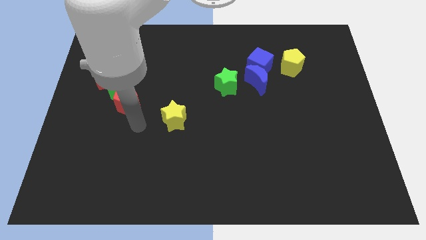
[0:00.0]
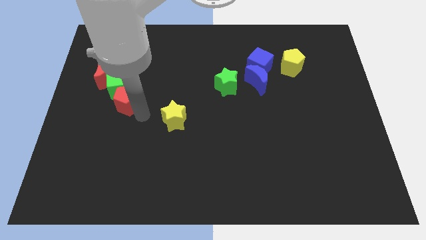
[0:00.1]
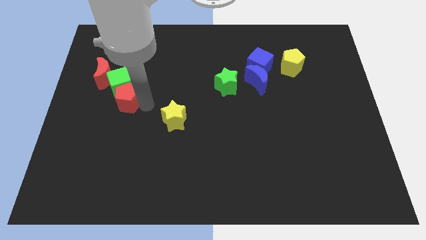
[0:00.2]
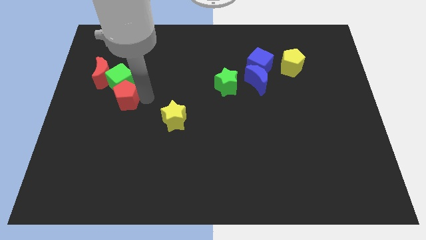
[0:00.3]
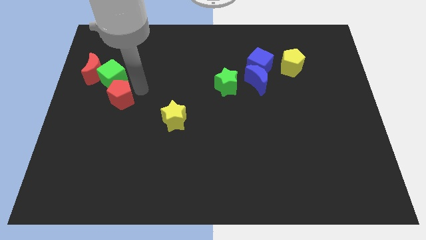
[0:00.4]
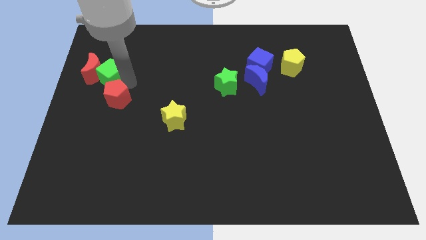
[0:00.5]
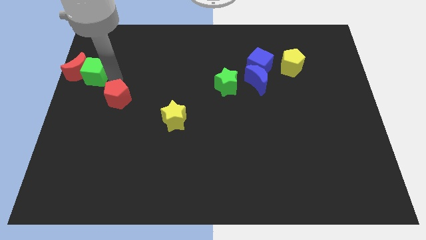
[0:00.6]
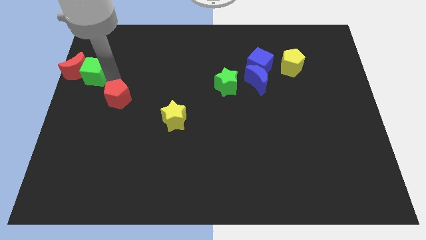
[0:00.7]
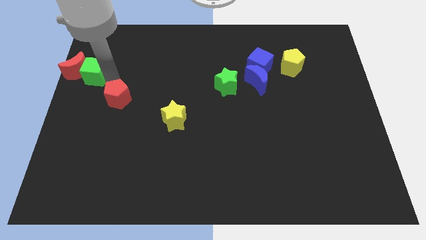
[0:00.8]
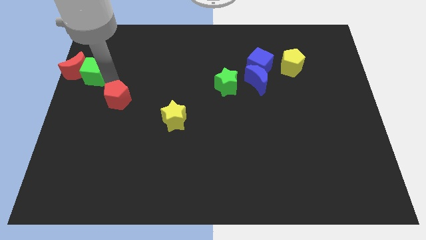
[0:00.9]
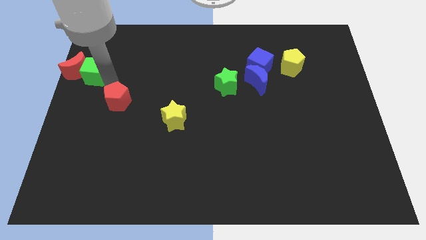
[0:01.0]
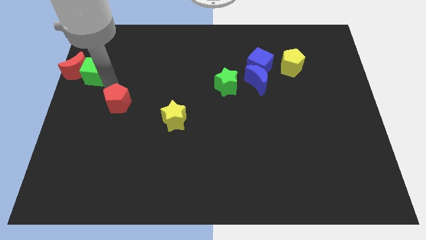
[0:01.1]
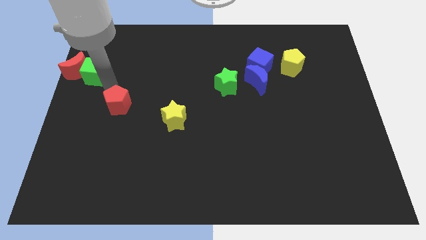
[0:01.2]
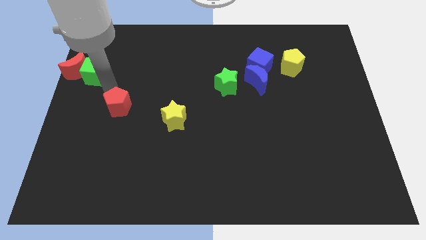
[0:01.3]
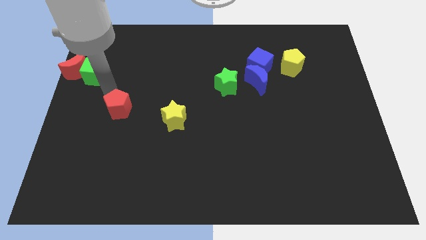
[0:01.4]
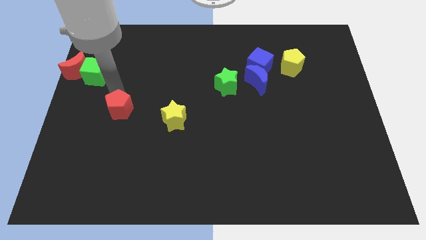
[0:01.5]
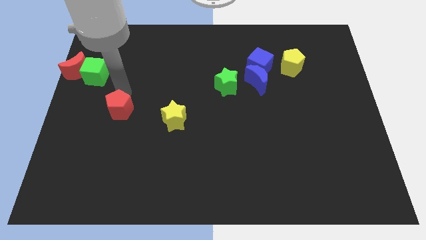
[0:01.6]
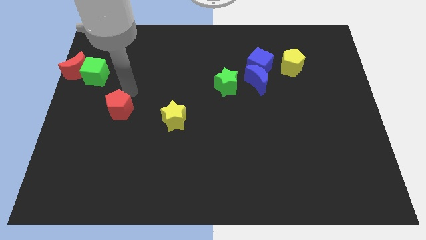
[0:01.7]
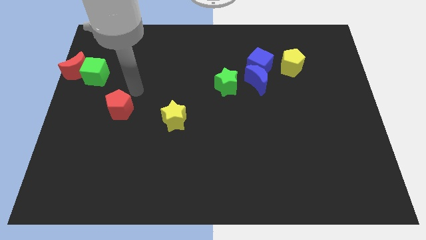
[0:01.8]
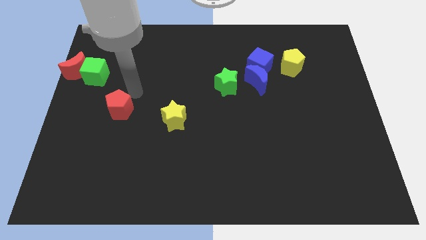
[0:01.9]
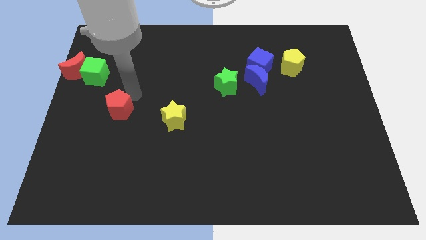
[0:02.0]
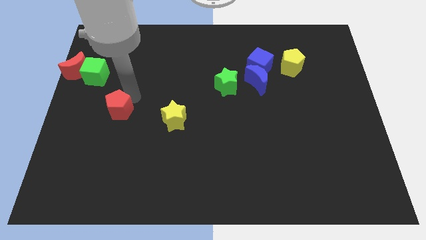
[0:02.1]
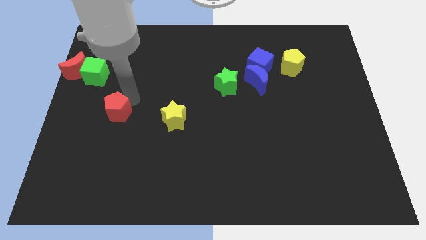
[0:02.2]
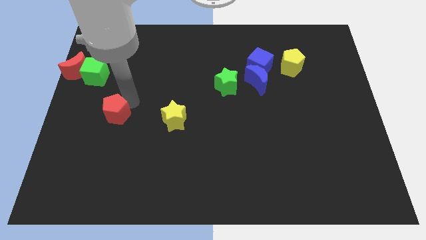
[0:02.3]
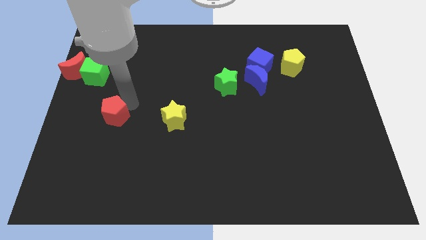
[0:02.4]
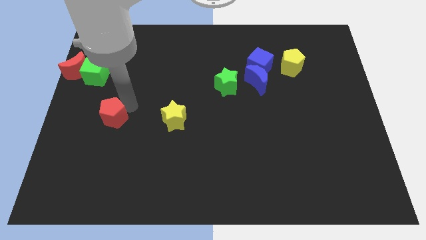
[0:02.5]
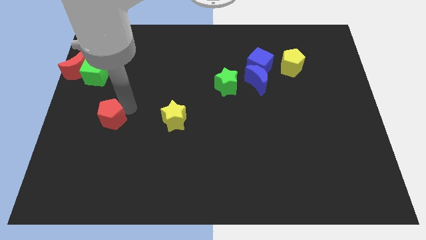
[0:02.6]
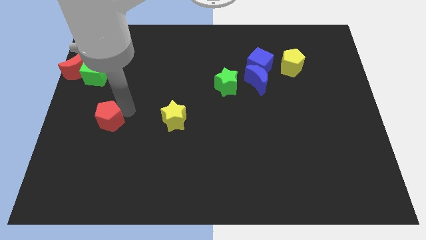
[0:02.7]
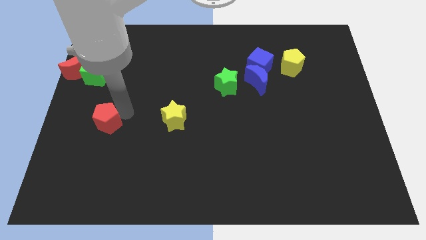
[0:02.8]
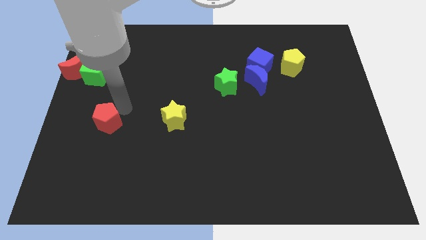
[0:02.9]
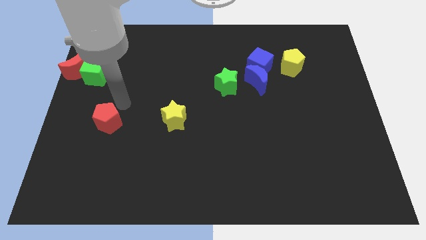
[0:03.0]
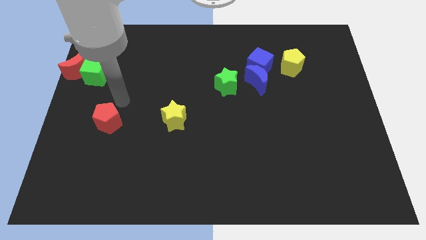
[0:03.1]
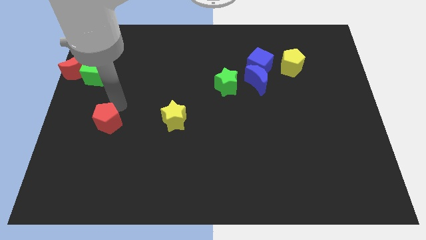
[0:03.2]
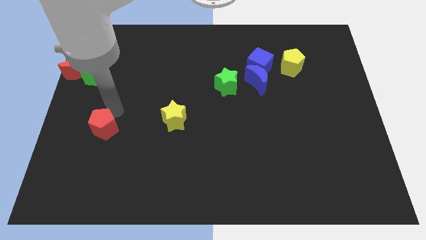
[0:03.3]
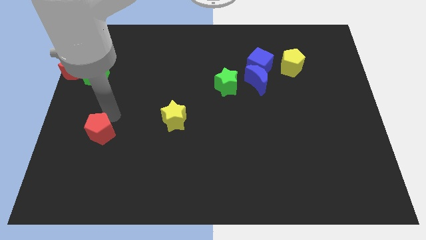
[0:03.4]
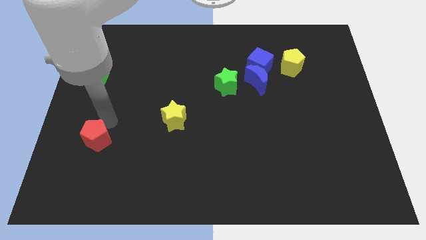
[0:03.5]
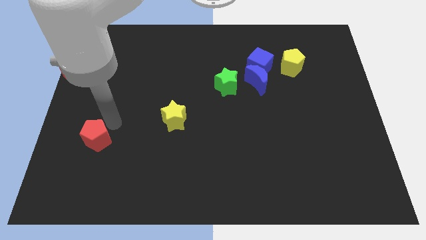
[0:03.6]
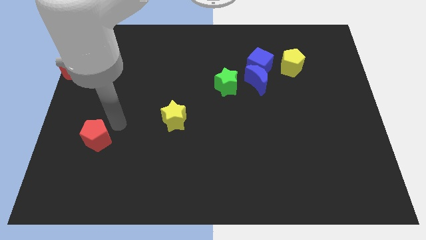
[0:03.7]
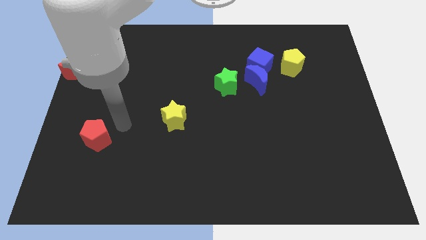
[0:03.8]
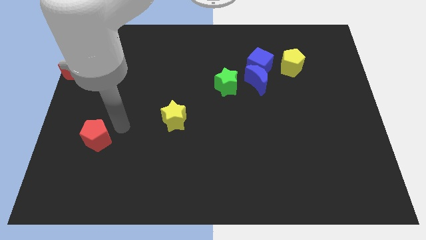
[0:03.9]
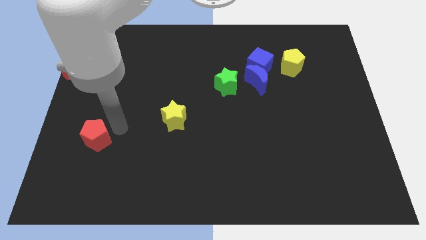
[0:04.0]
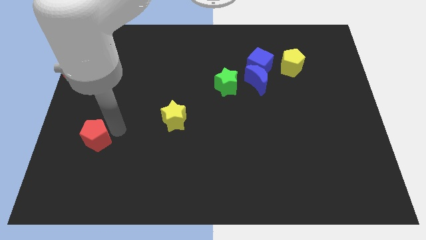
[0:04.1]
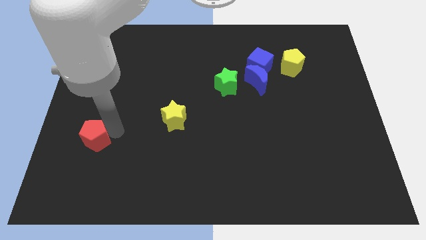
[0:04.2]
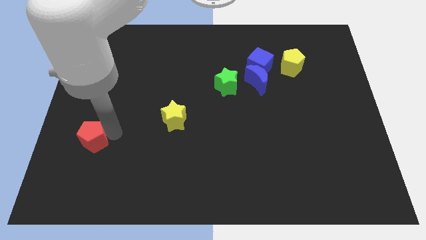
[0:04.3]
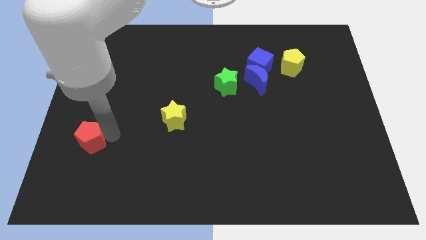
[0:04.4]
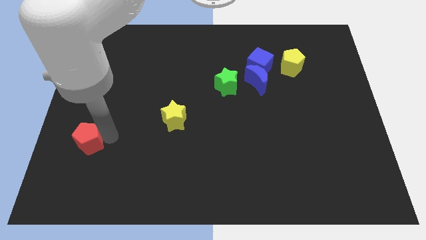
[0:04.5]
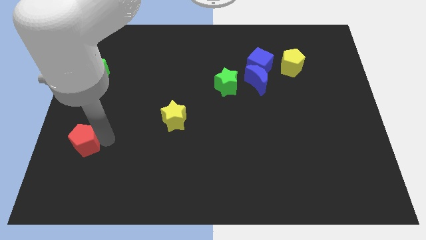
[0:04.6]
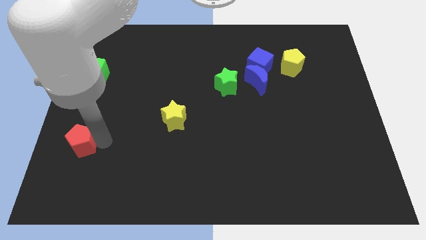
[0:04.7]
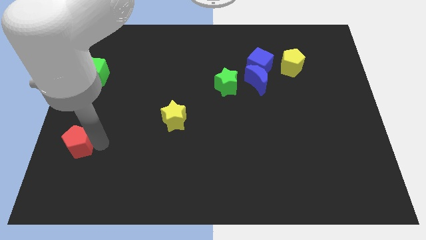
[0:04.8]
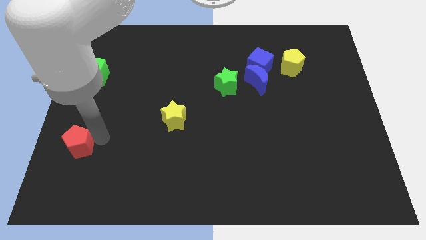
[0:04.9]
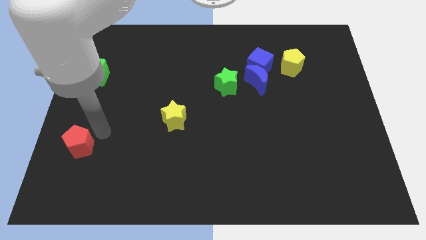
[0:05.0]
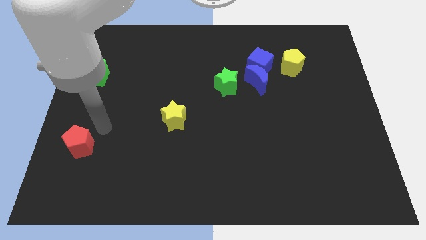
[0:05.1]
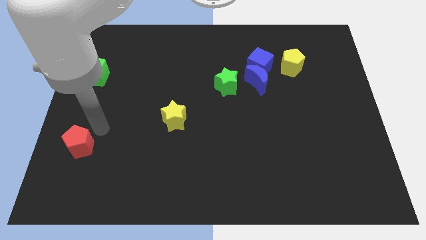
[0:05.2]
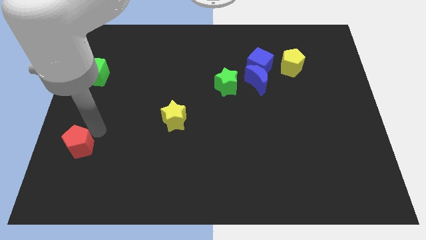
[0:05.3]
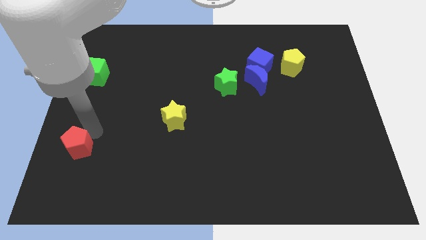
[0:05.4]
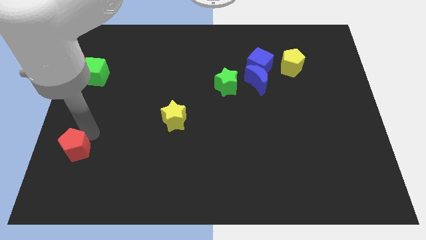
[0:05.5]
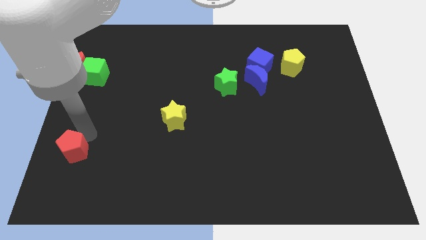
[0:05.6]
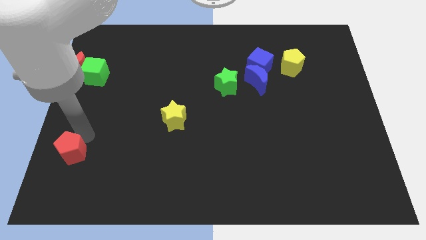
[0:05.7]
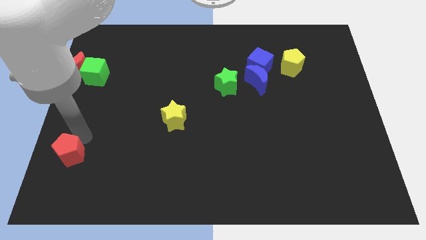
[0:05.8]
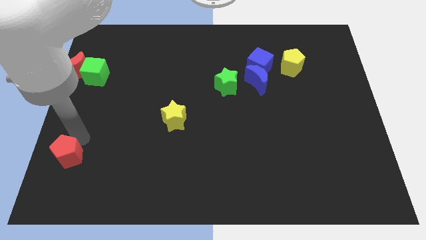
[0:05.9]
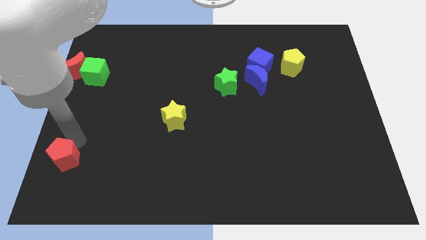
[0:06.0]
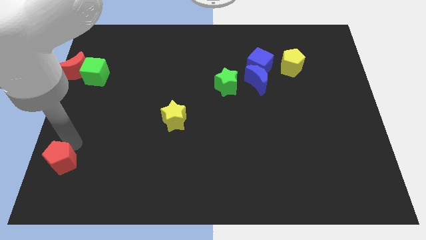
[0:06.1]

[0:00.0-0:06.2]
move the red pentagon to the bottom left

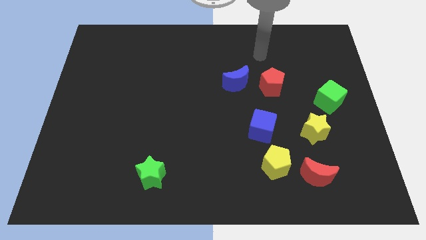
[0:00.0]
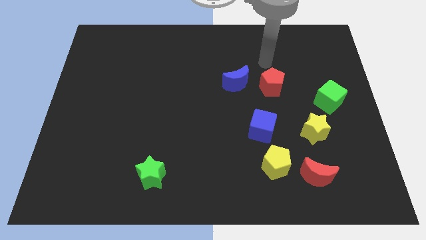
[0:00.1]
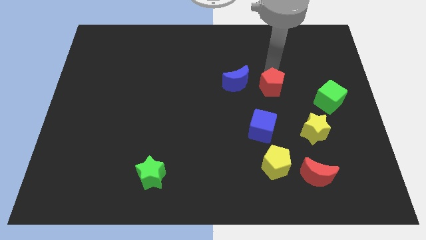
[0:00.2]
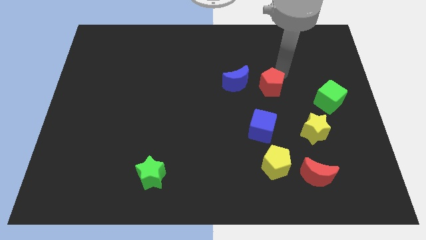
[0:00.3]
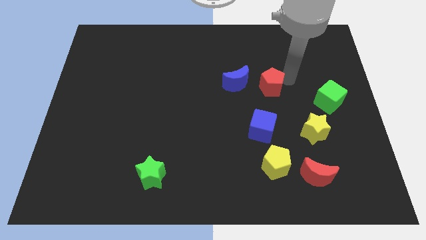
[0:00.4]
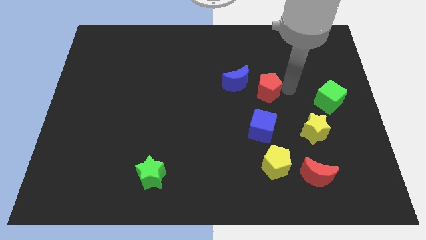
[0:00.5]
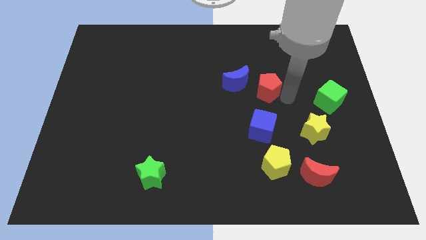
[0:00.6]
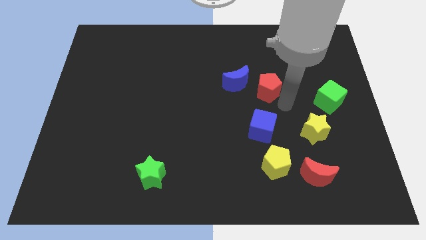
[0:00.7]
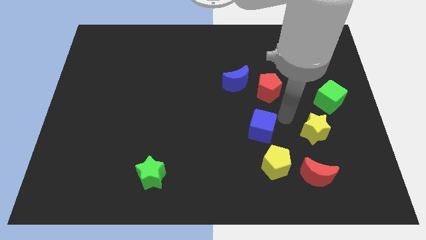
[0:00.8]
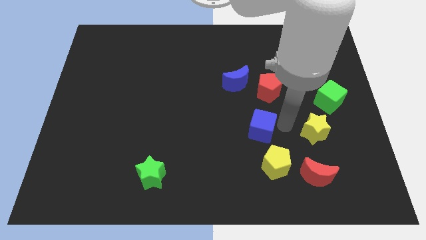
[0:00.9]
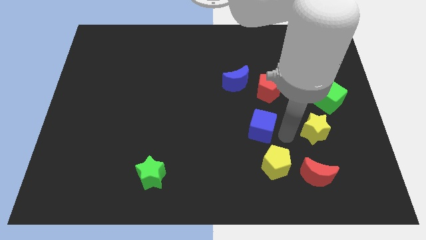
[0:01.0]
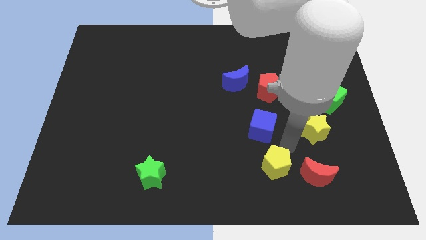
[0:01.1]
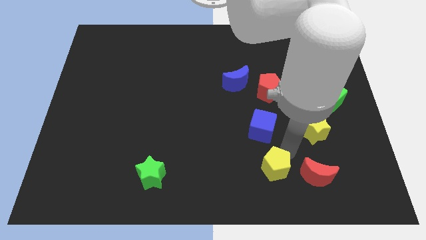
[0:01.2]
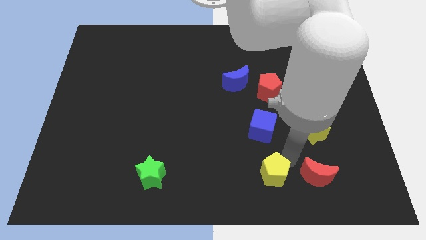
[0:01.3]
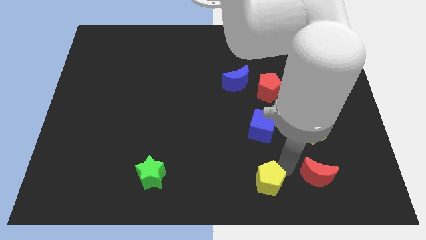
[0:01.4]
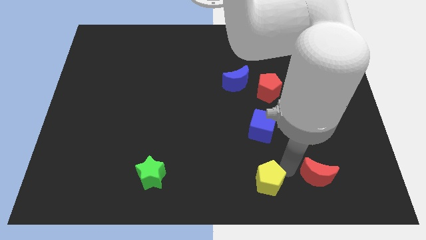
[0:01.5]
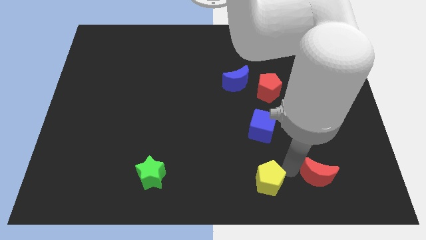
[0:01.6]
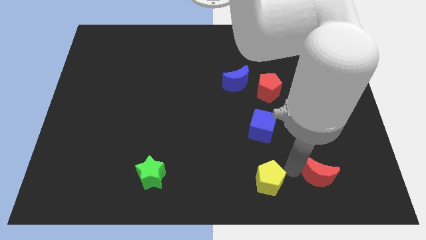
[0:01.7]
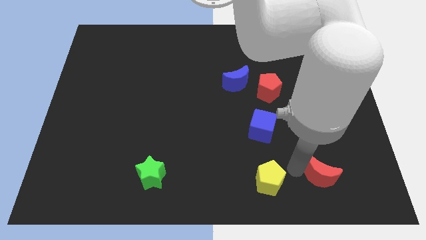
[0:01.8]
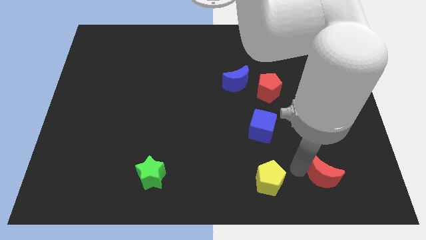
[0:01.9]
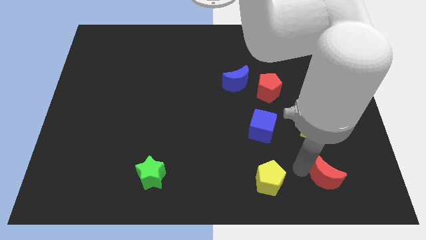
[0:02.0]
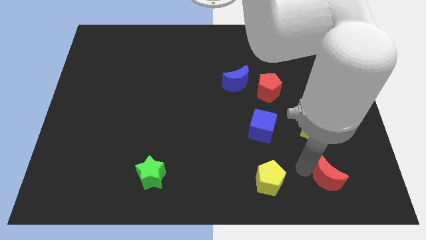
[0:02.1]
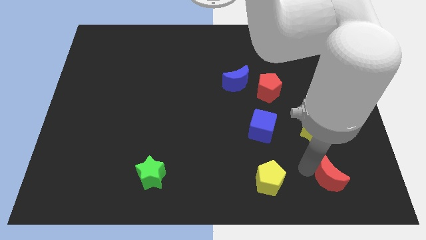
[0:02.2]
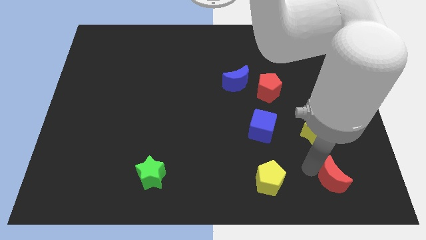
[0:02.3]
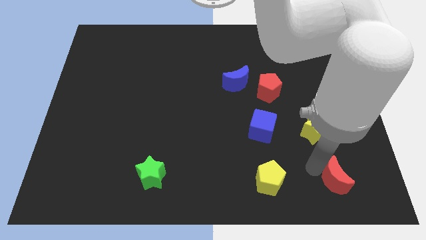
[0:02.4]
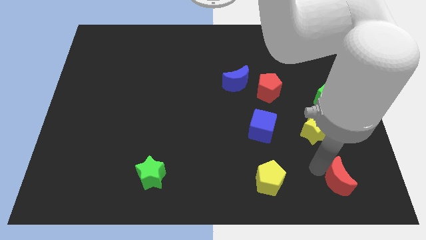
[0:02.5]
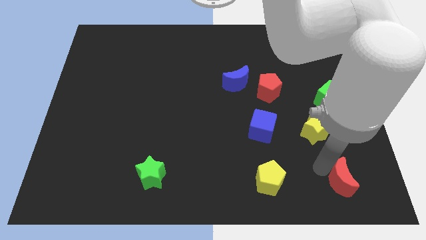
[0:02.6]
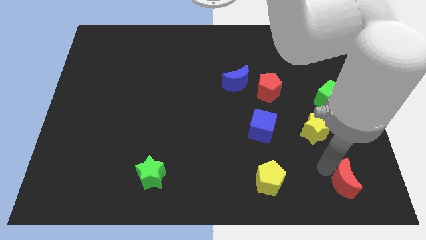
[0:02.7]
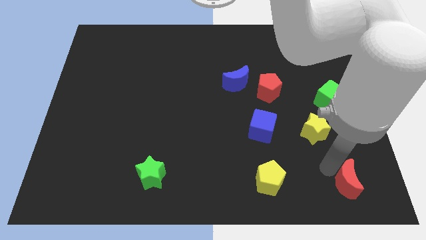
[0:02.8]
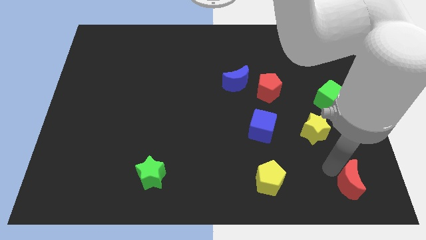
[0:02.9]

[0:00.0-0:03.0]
slide the red moon to the bottom right corner
